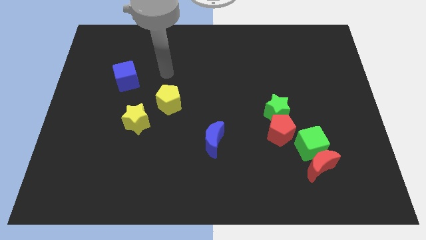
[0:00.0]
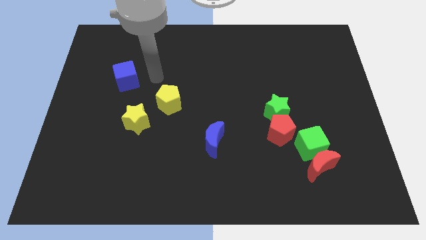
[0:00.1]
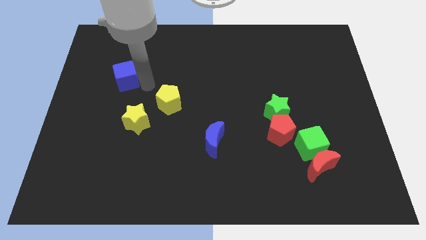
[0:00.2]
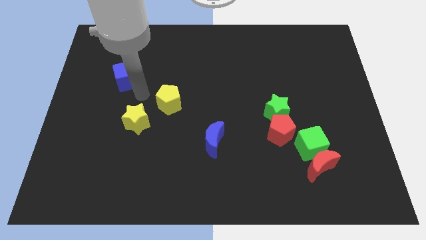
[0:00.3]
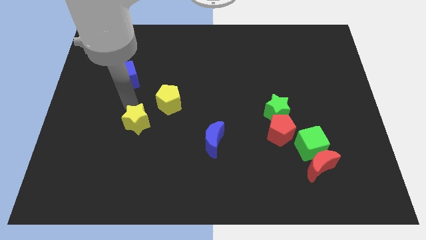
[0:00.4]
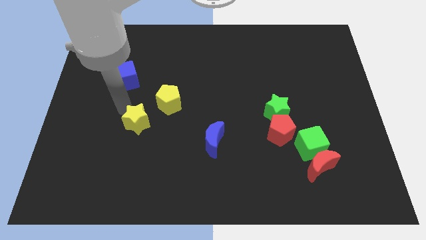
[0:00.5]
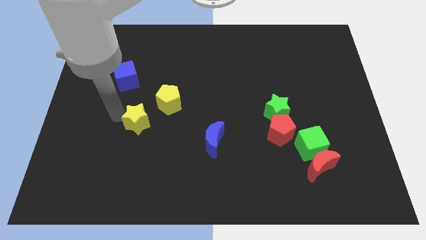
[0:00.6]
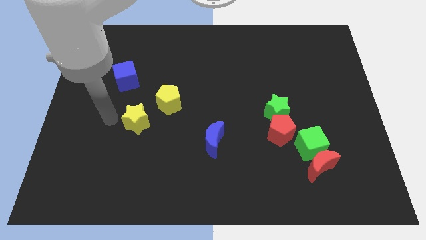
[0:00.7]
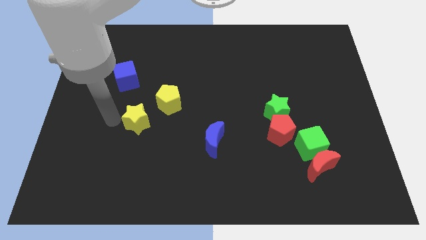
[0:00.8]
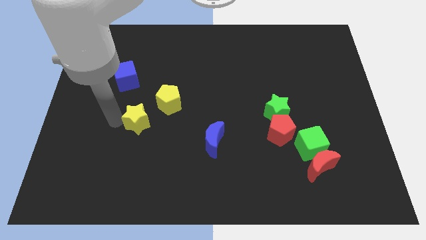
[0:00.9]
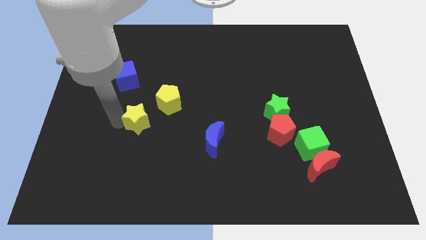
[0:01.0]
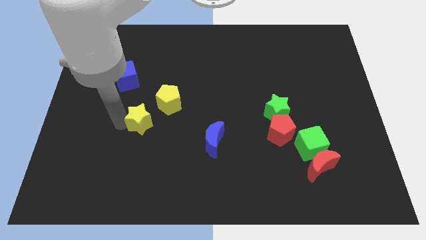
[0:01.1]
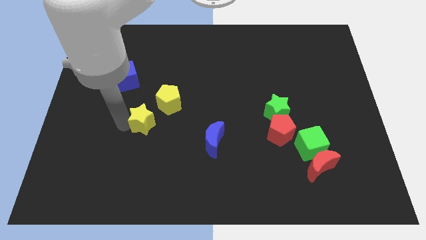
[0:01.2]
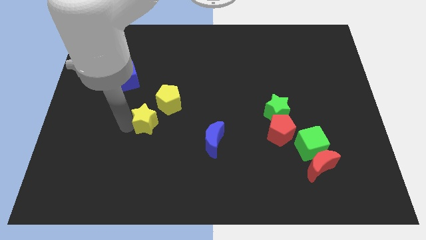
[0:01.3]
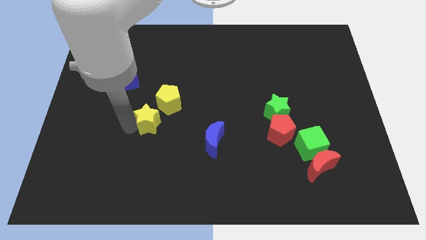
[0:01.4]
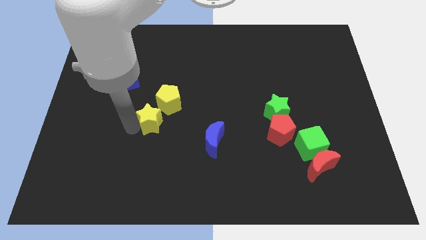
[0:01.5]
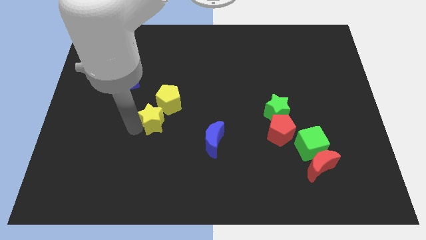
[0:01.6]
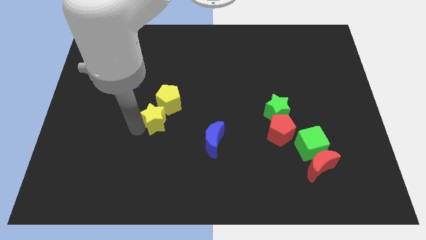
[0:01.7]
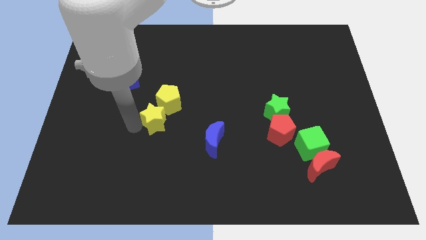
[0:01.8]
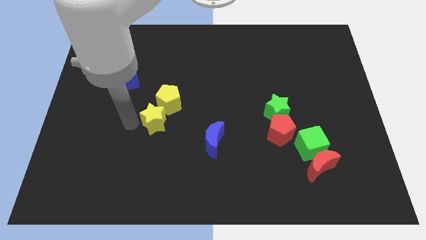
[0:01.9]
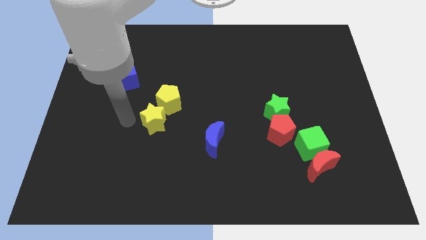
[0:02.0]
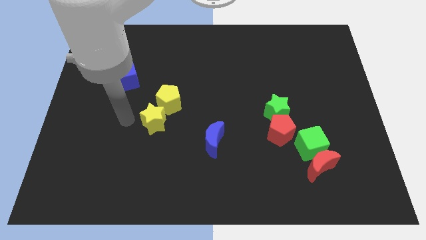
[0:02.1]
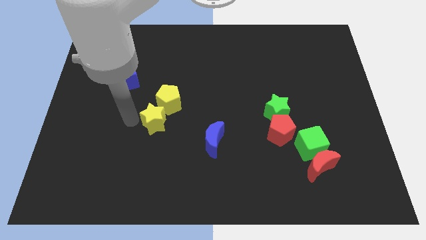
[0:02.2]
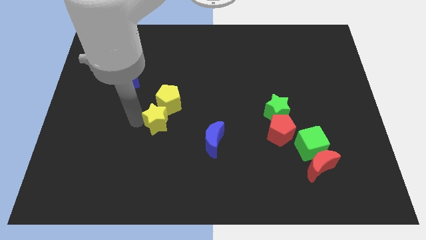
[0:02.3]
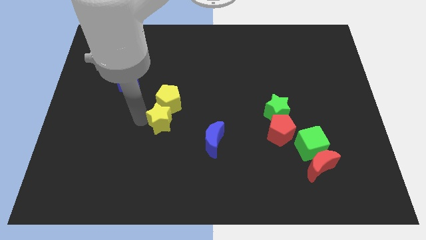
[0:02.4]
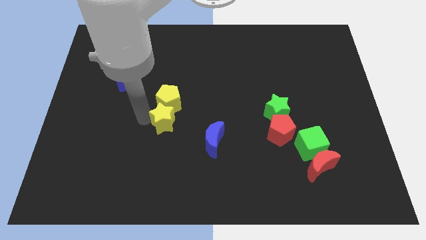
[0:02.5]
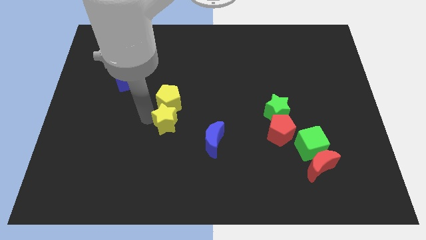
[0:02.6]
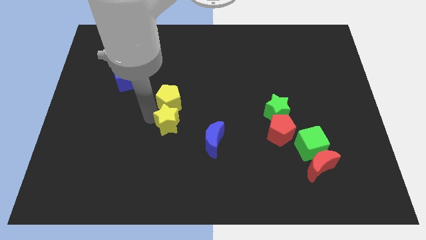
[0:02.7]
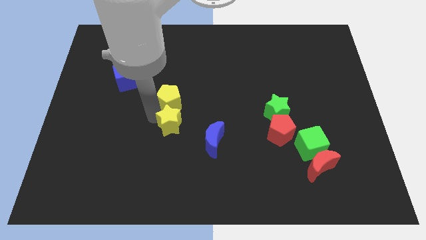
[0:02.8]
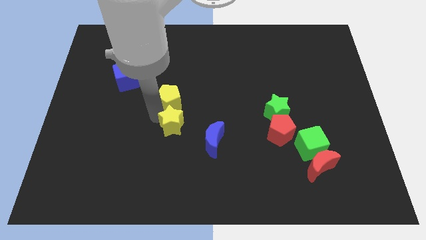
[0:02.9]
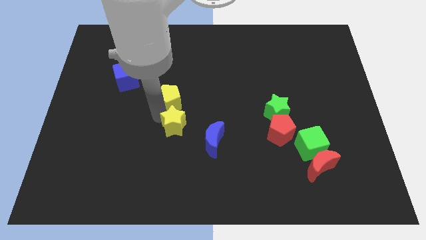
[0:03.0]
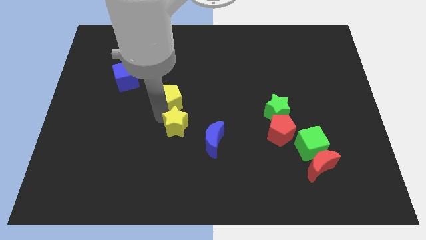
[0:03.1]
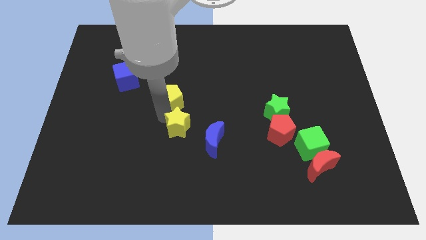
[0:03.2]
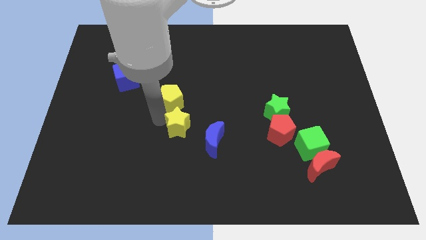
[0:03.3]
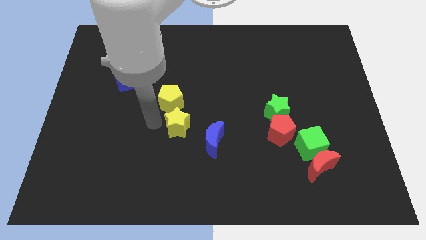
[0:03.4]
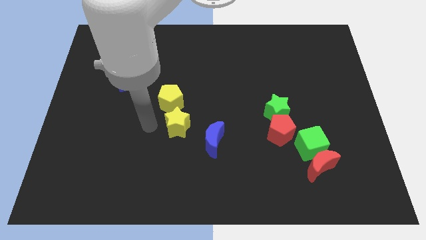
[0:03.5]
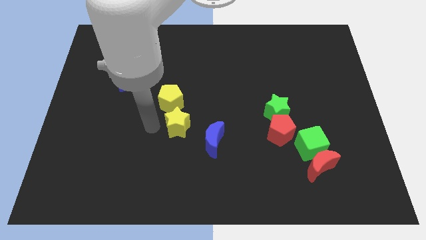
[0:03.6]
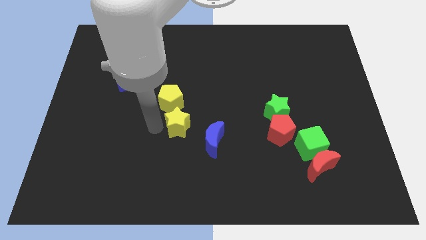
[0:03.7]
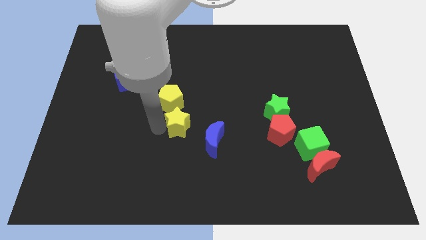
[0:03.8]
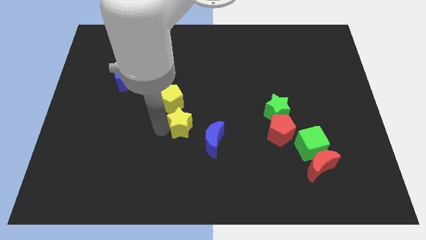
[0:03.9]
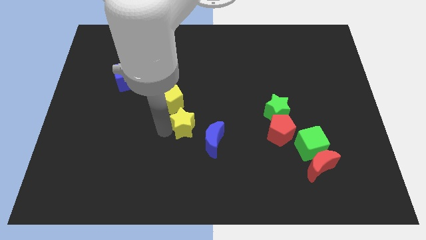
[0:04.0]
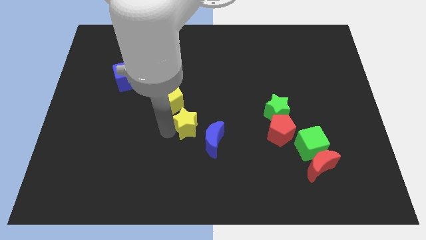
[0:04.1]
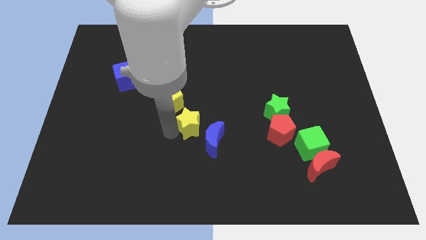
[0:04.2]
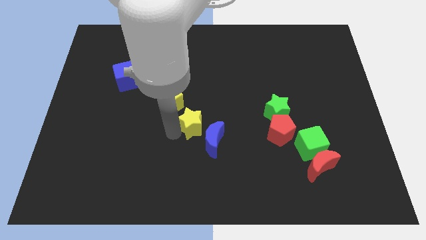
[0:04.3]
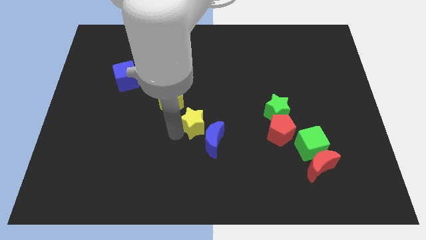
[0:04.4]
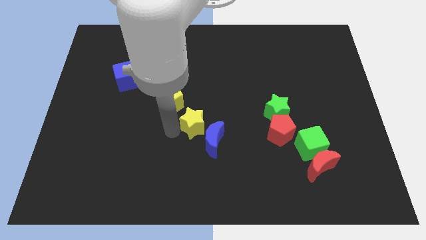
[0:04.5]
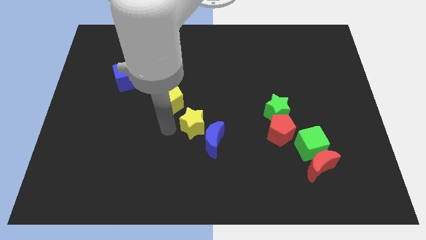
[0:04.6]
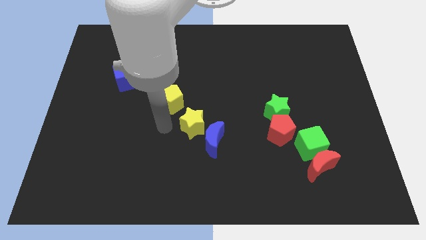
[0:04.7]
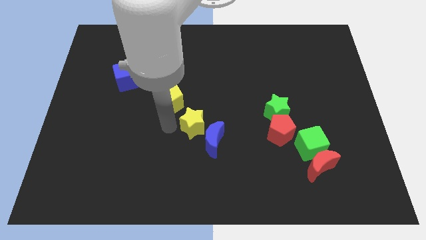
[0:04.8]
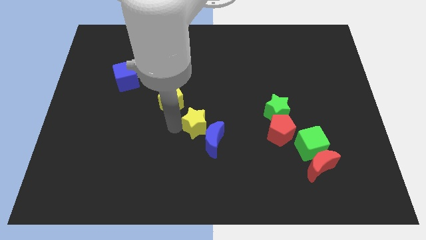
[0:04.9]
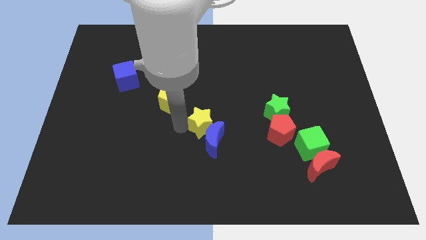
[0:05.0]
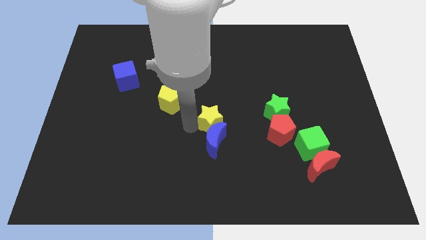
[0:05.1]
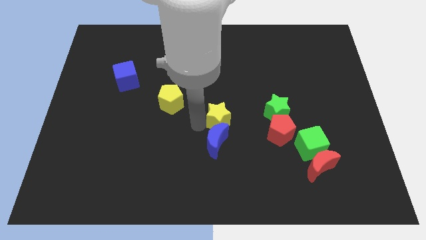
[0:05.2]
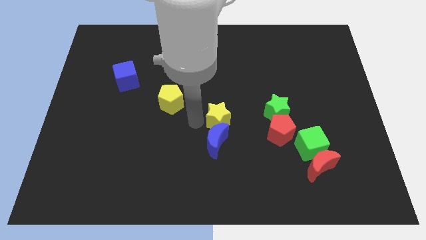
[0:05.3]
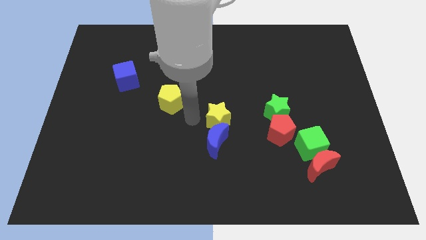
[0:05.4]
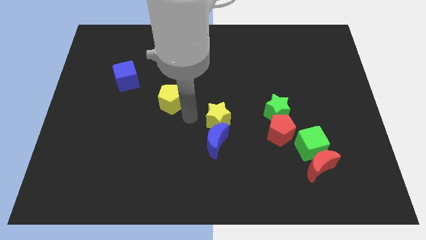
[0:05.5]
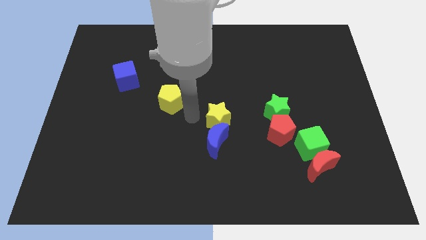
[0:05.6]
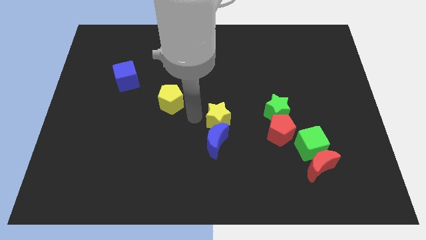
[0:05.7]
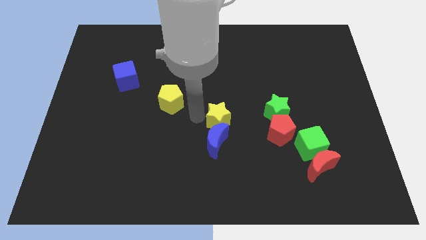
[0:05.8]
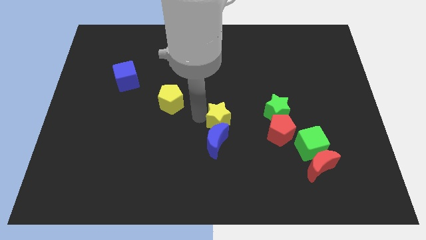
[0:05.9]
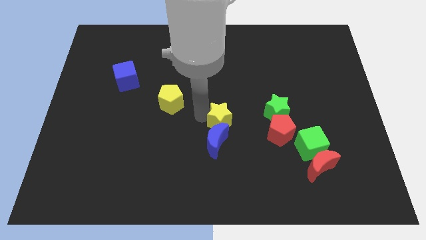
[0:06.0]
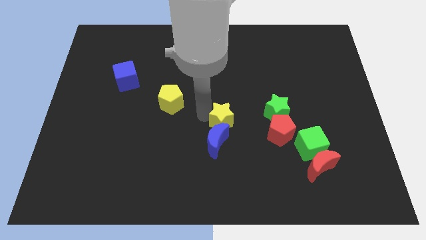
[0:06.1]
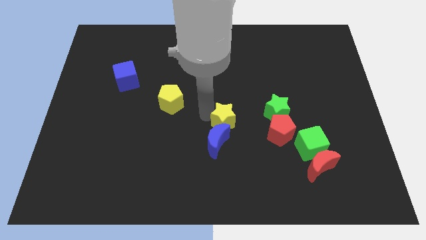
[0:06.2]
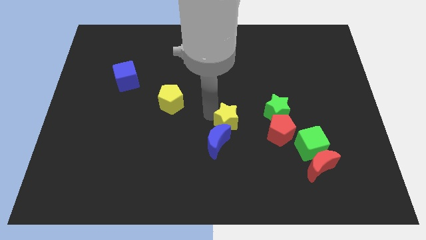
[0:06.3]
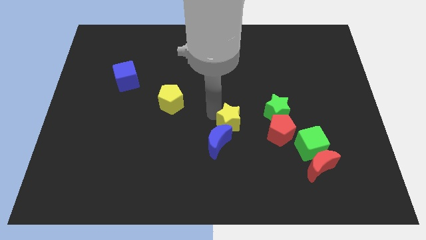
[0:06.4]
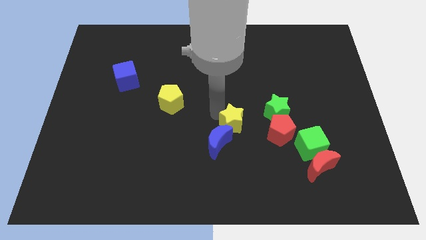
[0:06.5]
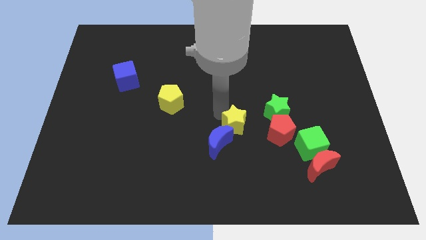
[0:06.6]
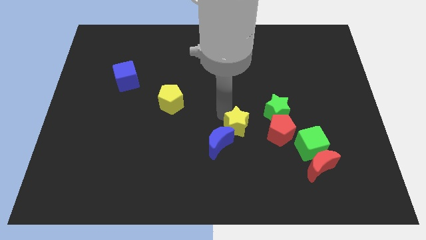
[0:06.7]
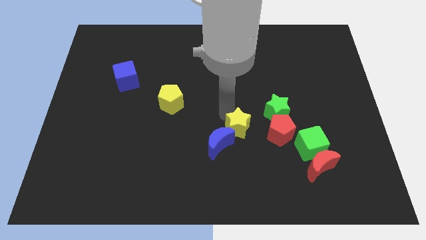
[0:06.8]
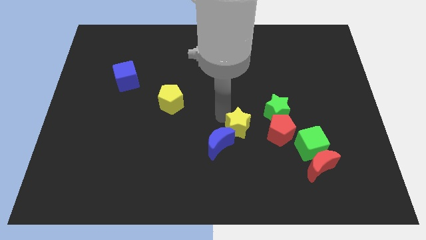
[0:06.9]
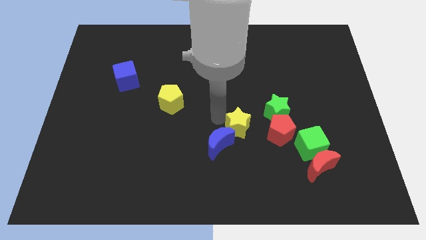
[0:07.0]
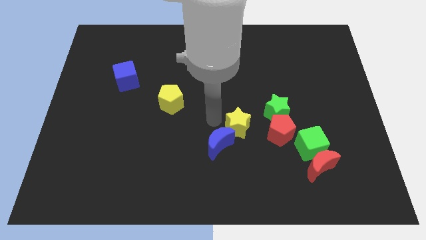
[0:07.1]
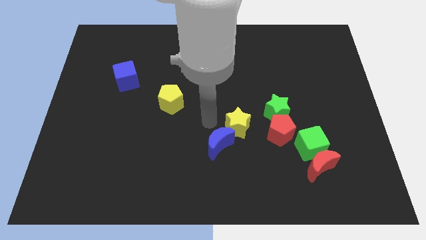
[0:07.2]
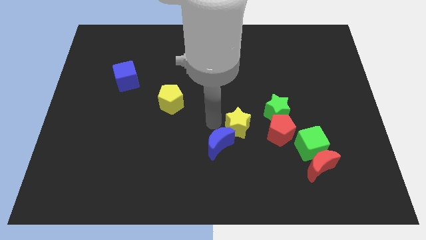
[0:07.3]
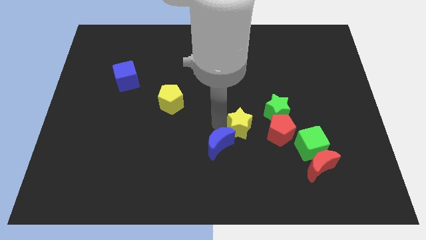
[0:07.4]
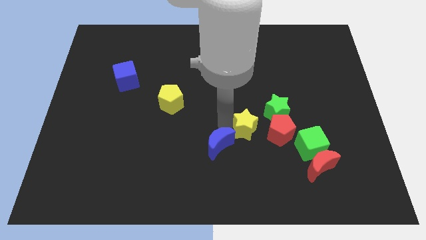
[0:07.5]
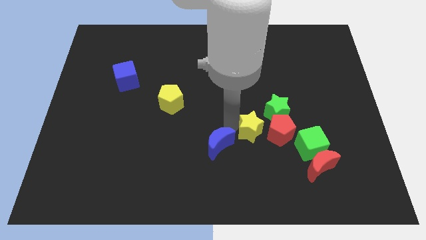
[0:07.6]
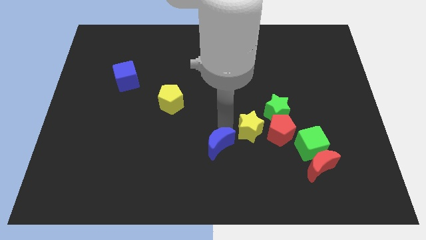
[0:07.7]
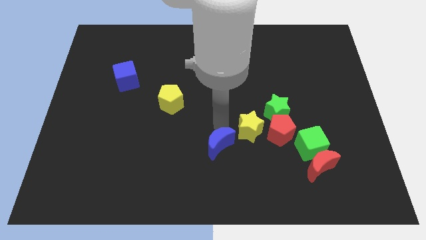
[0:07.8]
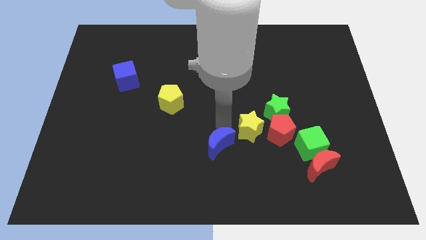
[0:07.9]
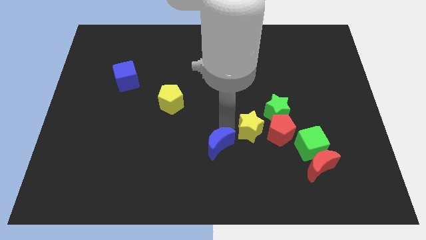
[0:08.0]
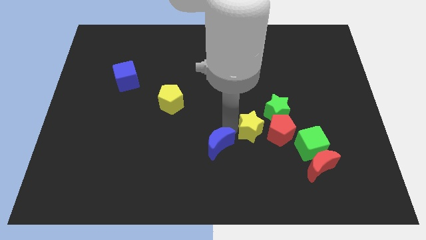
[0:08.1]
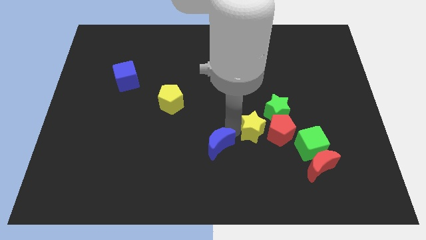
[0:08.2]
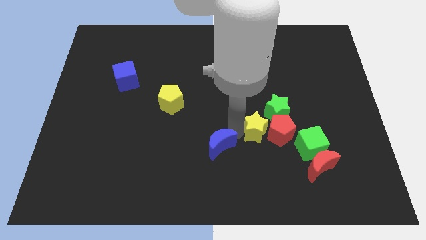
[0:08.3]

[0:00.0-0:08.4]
slide the yellow star close to the red pentagon
